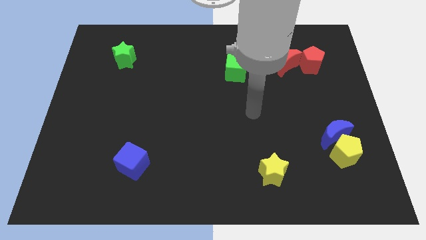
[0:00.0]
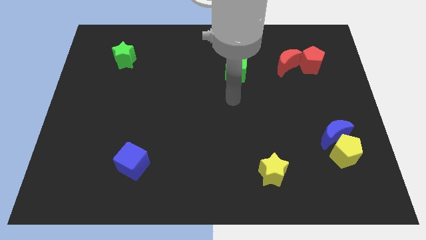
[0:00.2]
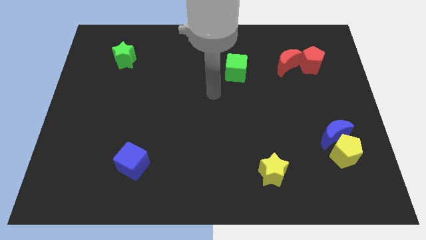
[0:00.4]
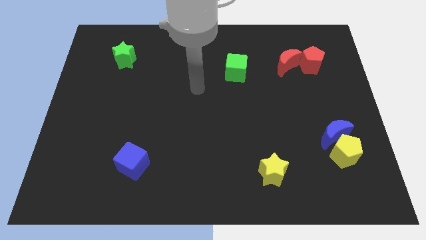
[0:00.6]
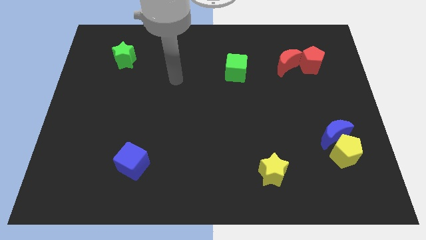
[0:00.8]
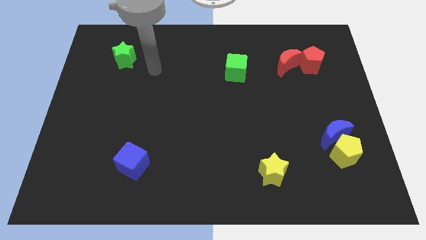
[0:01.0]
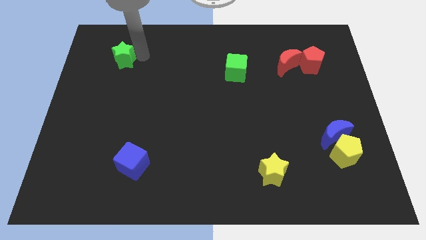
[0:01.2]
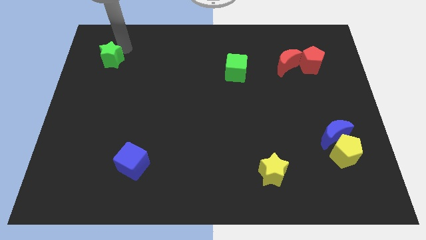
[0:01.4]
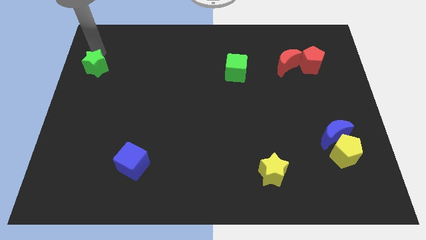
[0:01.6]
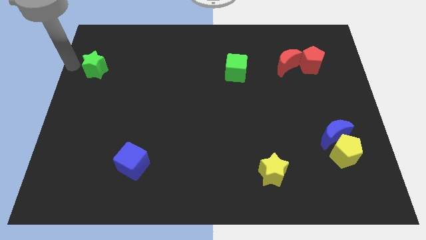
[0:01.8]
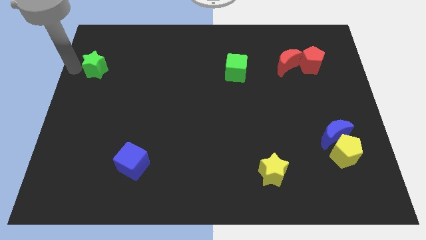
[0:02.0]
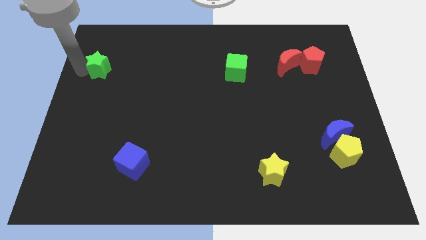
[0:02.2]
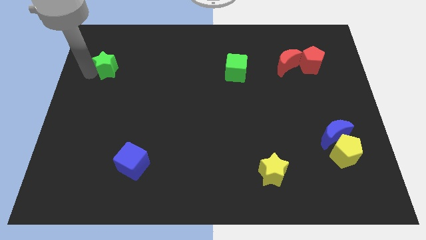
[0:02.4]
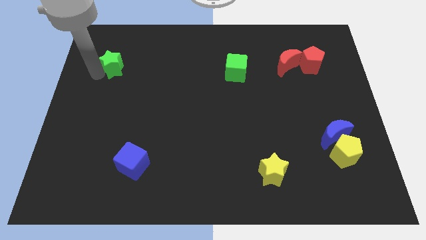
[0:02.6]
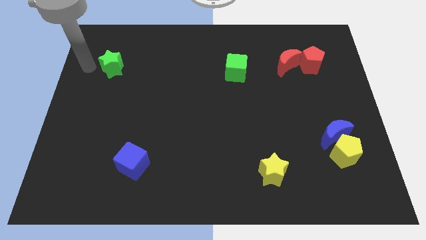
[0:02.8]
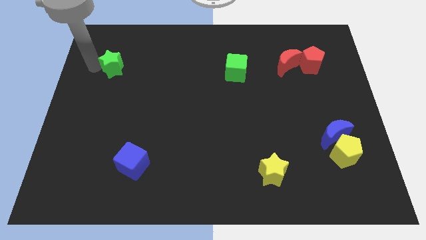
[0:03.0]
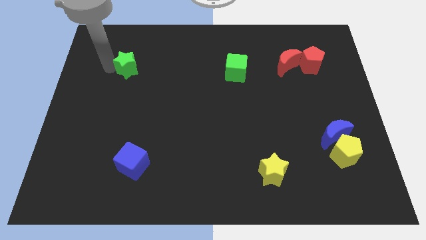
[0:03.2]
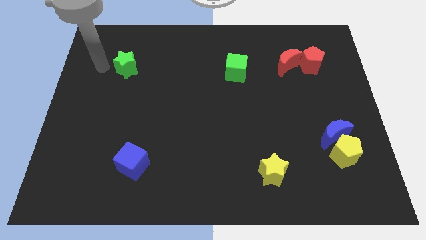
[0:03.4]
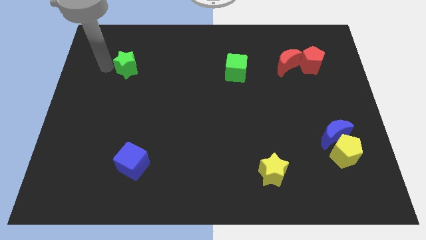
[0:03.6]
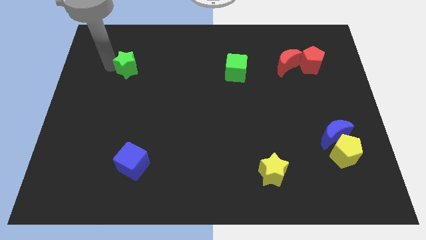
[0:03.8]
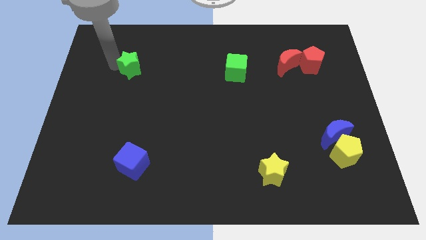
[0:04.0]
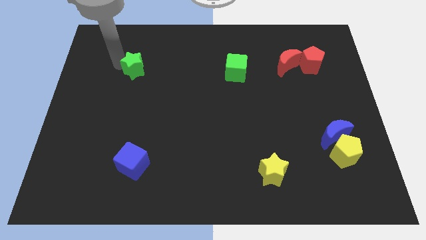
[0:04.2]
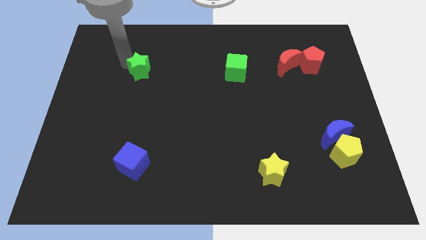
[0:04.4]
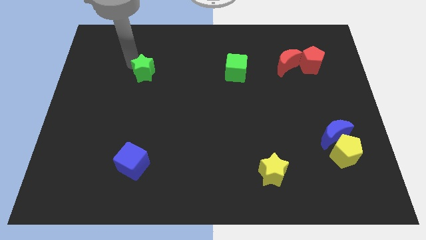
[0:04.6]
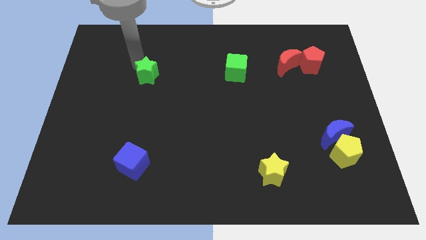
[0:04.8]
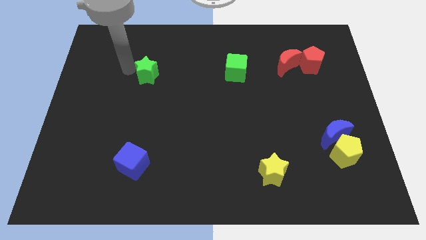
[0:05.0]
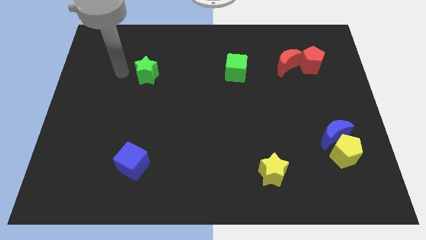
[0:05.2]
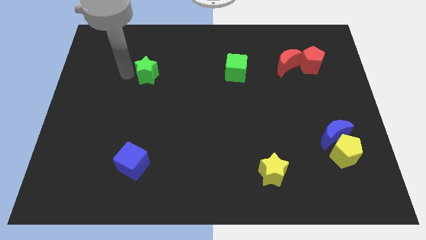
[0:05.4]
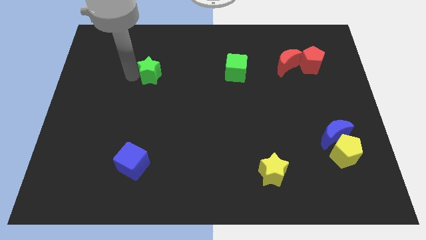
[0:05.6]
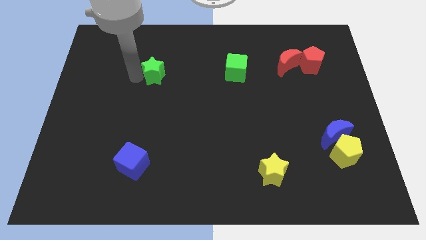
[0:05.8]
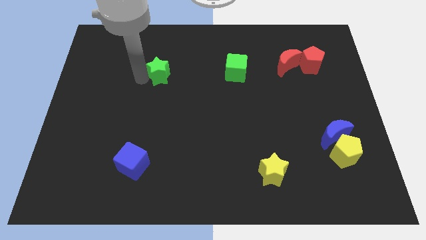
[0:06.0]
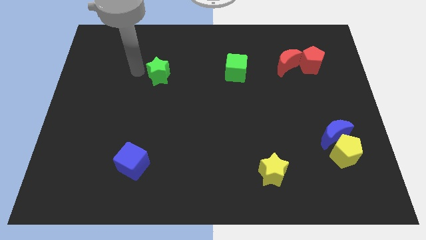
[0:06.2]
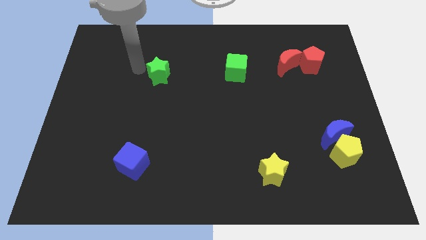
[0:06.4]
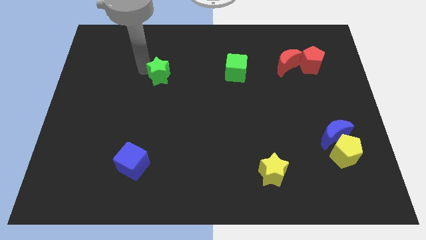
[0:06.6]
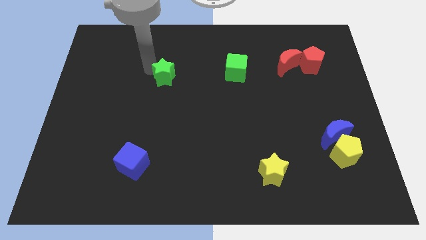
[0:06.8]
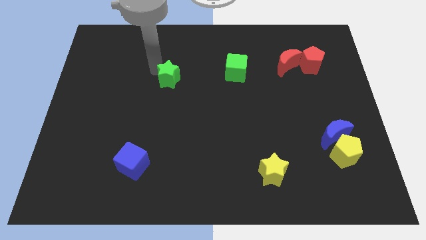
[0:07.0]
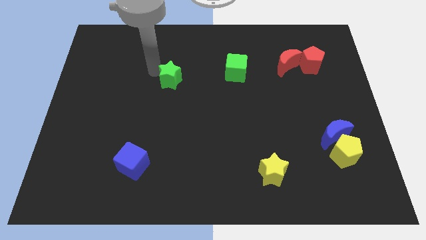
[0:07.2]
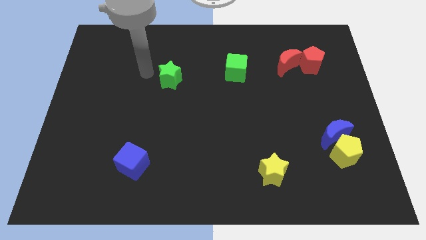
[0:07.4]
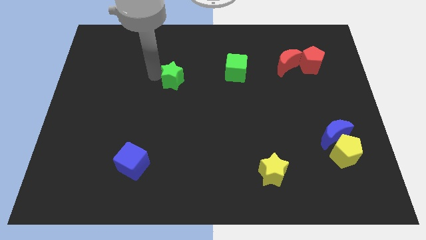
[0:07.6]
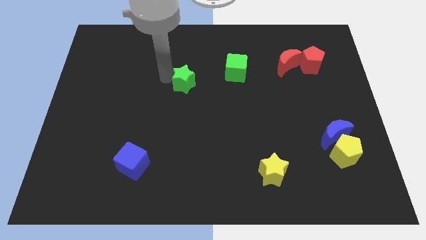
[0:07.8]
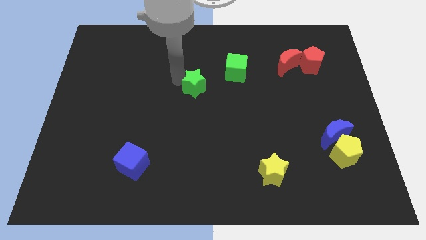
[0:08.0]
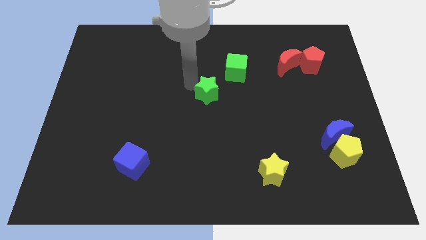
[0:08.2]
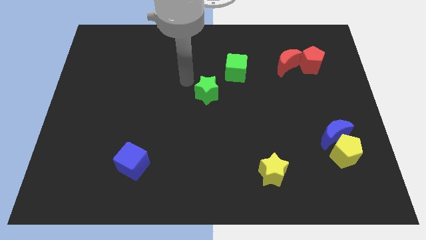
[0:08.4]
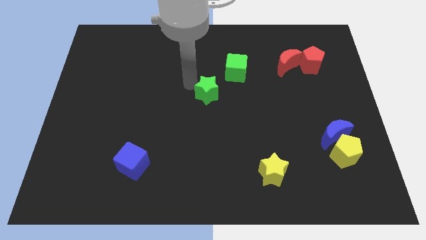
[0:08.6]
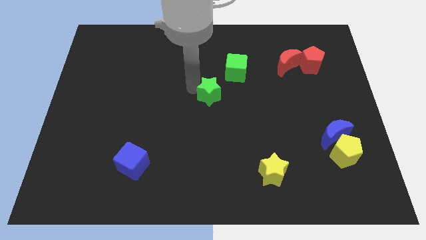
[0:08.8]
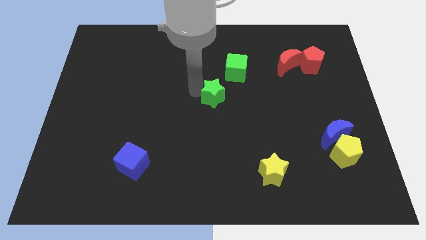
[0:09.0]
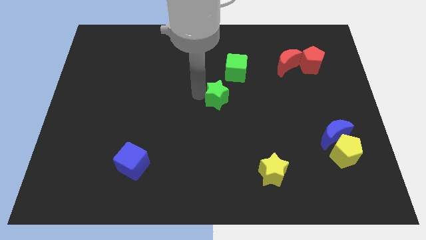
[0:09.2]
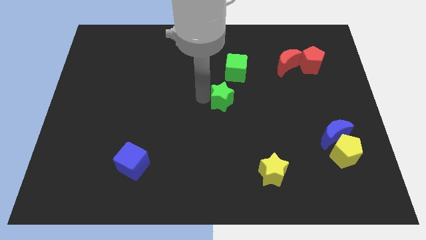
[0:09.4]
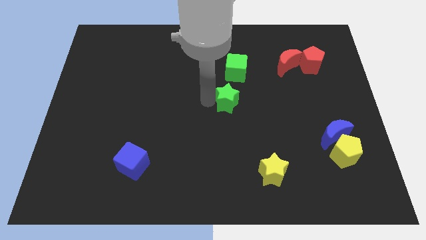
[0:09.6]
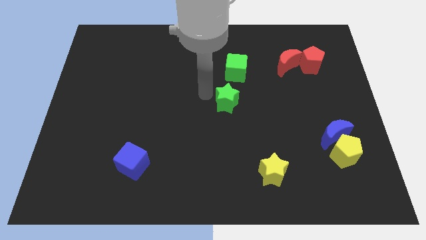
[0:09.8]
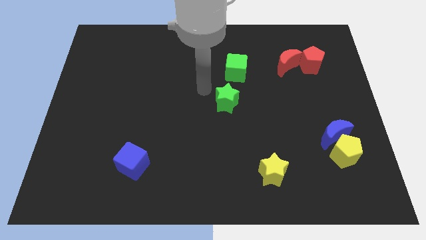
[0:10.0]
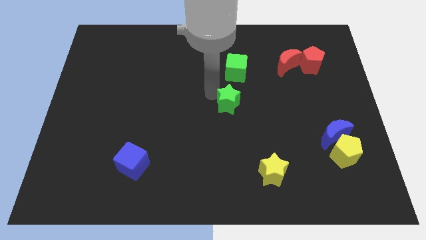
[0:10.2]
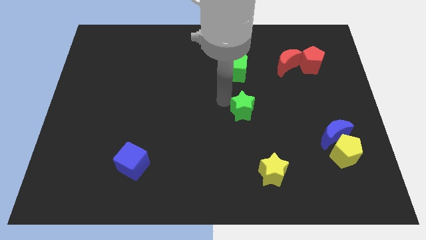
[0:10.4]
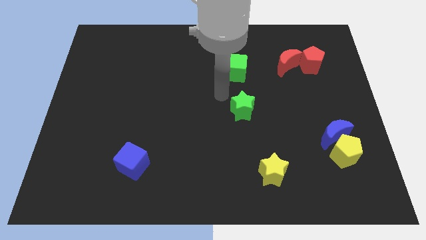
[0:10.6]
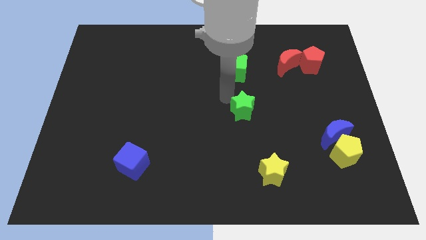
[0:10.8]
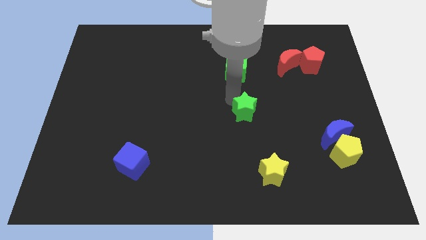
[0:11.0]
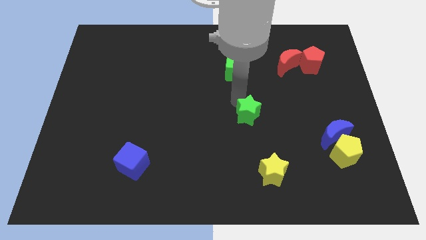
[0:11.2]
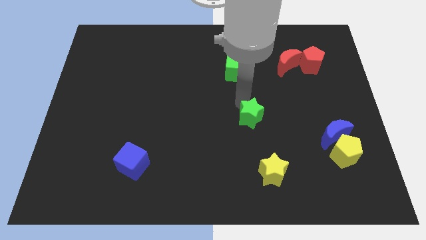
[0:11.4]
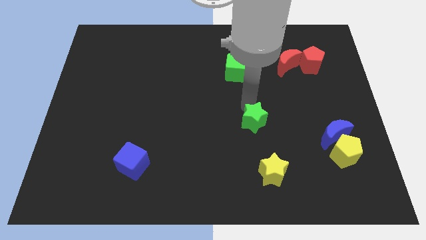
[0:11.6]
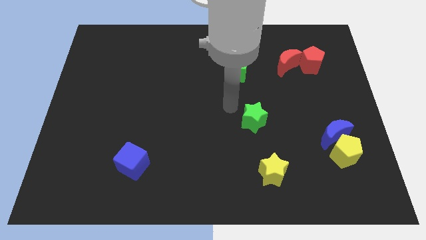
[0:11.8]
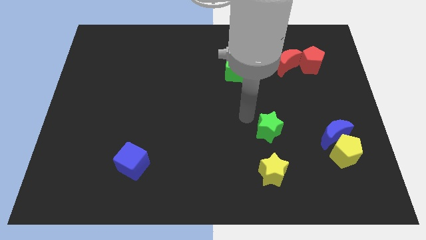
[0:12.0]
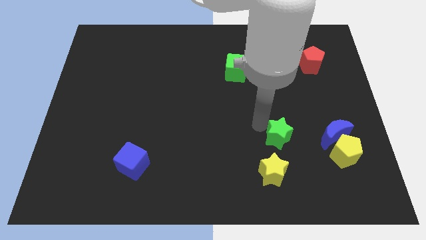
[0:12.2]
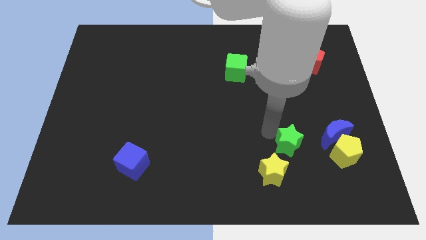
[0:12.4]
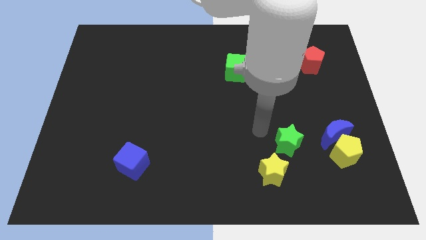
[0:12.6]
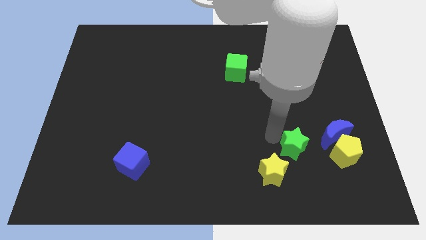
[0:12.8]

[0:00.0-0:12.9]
put the green star diagonally down and to the left of the blue moon

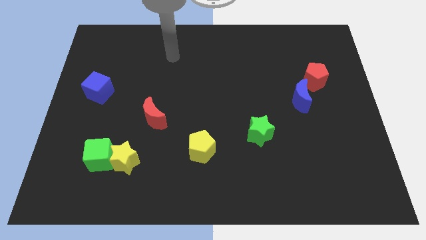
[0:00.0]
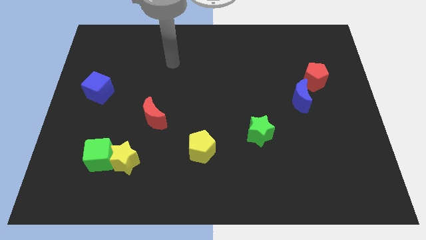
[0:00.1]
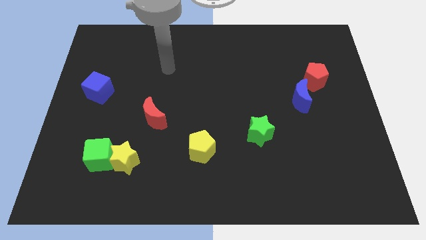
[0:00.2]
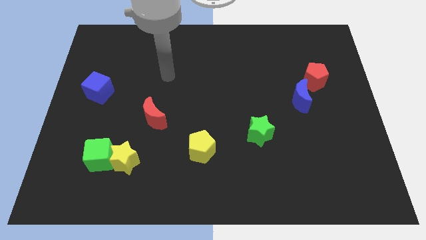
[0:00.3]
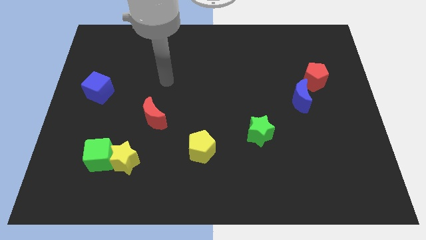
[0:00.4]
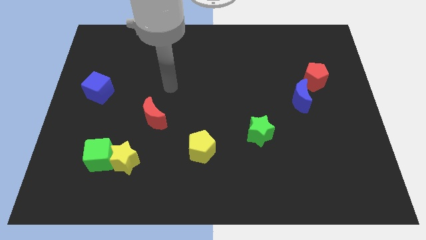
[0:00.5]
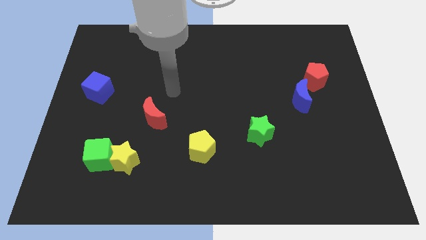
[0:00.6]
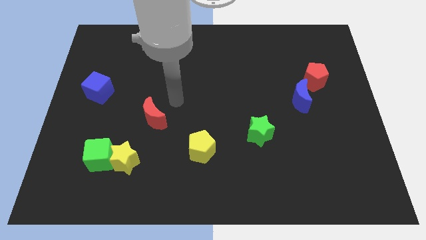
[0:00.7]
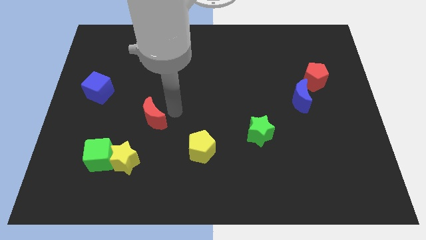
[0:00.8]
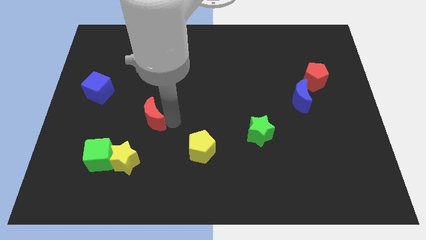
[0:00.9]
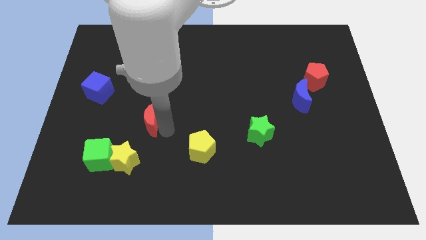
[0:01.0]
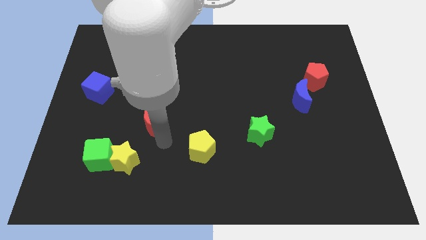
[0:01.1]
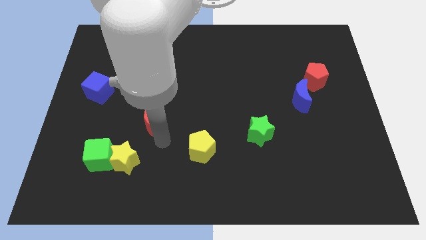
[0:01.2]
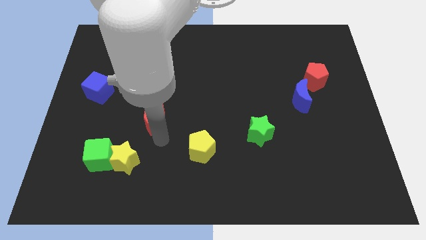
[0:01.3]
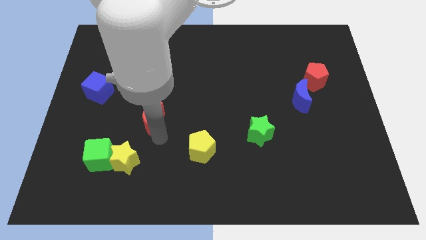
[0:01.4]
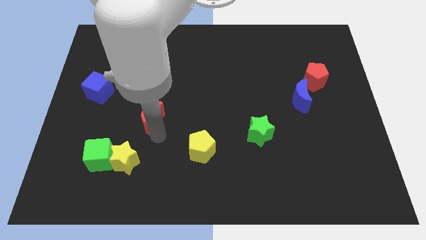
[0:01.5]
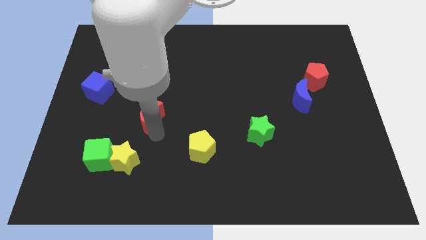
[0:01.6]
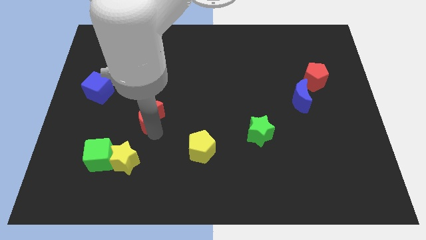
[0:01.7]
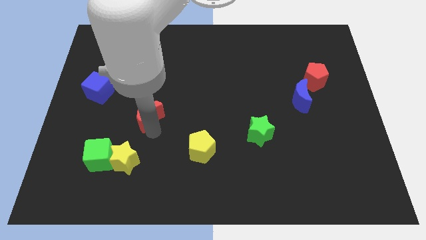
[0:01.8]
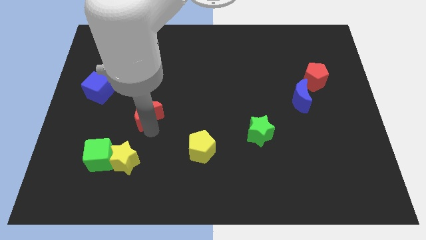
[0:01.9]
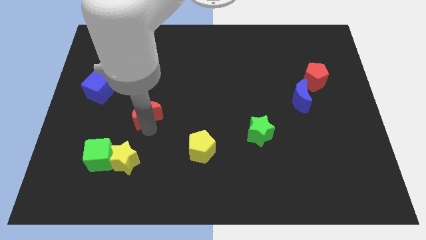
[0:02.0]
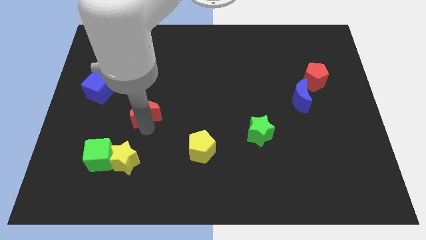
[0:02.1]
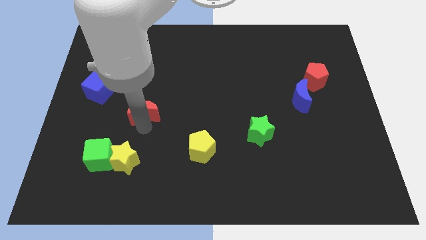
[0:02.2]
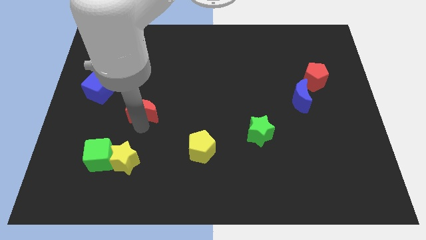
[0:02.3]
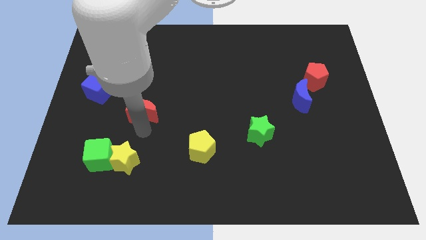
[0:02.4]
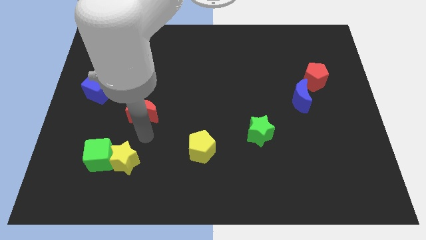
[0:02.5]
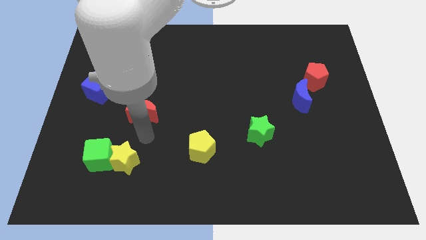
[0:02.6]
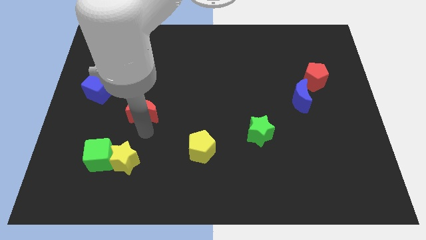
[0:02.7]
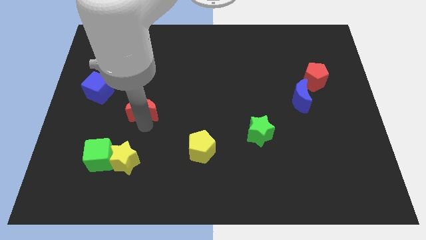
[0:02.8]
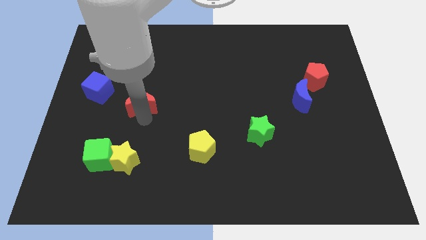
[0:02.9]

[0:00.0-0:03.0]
slide the red moon to the right side of the blue cube
